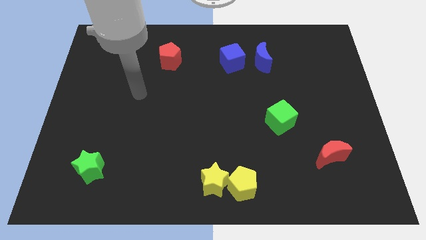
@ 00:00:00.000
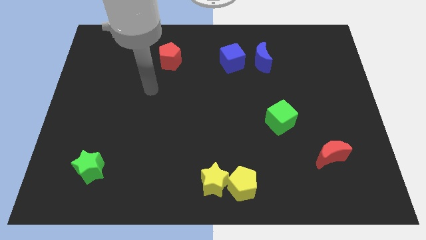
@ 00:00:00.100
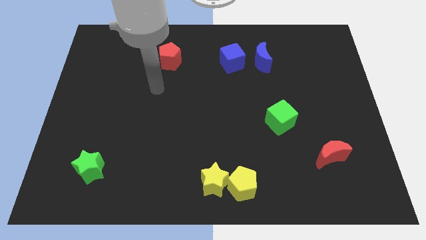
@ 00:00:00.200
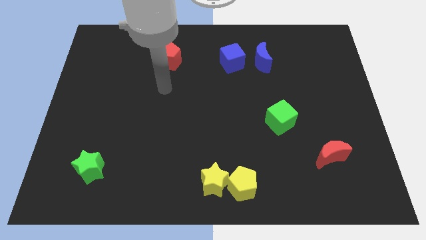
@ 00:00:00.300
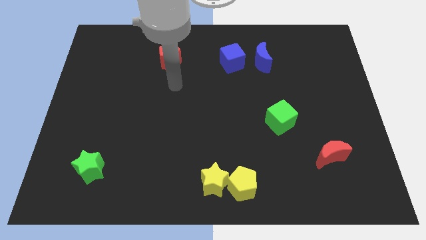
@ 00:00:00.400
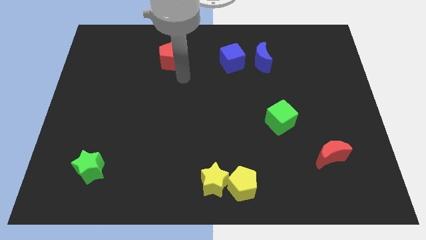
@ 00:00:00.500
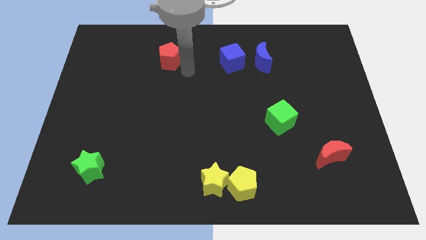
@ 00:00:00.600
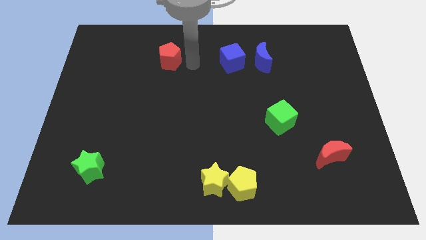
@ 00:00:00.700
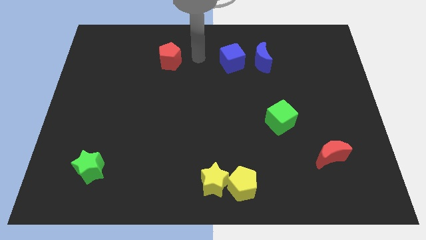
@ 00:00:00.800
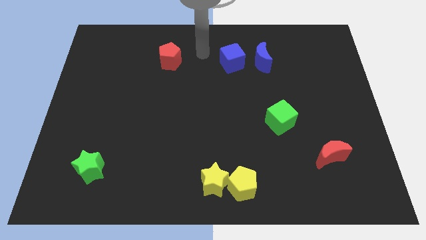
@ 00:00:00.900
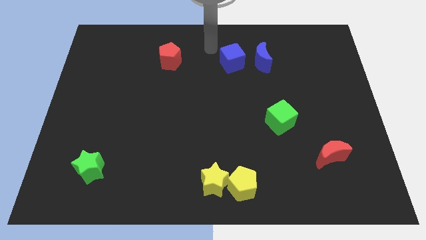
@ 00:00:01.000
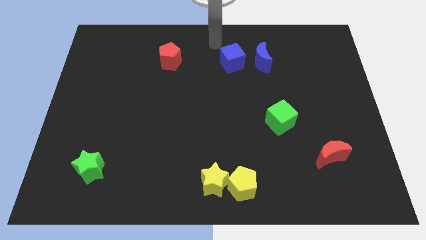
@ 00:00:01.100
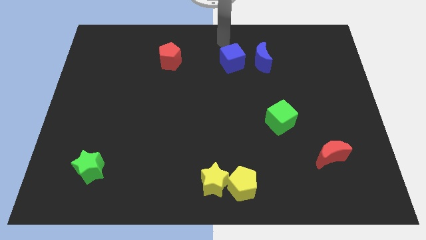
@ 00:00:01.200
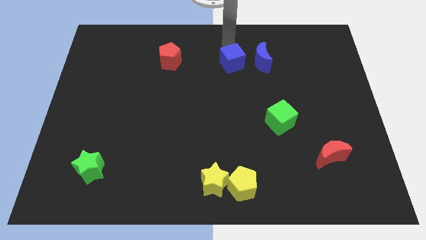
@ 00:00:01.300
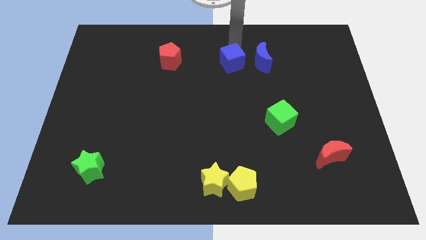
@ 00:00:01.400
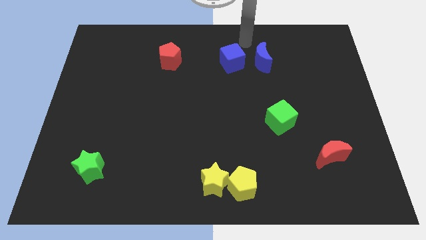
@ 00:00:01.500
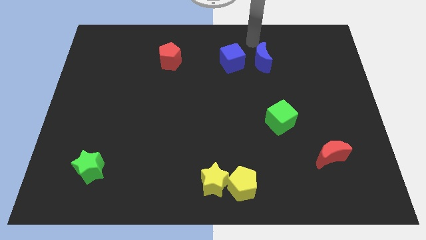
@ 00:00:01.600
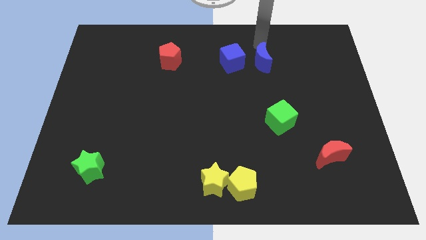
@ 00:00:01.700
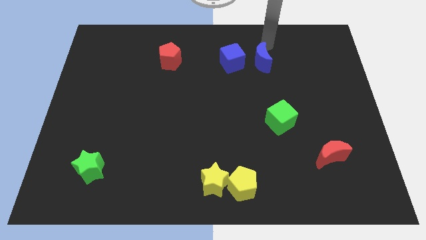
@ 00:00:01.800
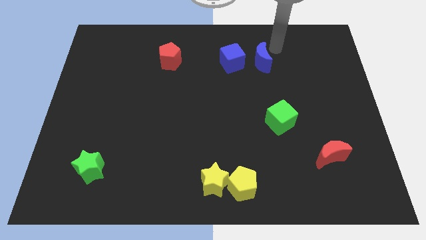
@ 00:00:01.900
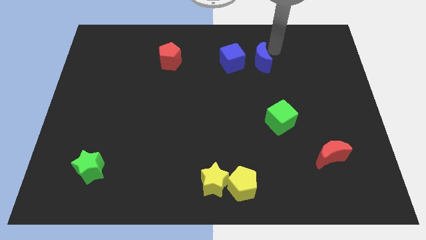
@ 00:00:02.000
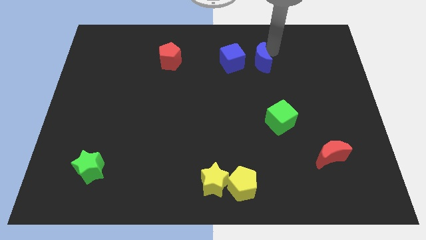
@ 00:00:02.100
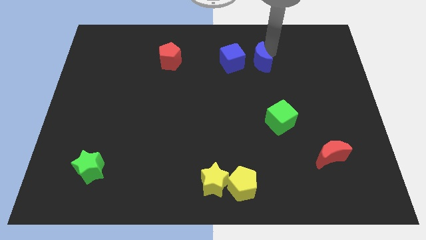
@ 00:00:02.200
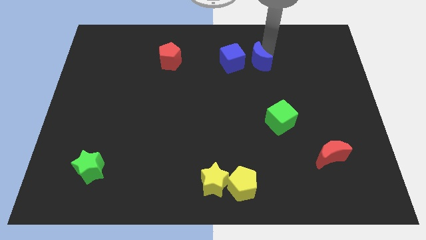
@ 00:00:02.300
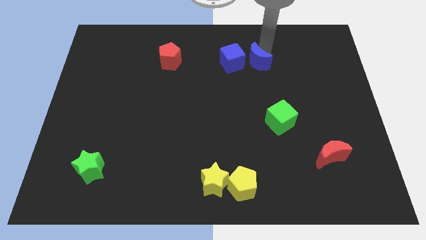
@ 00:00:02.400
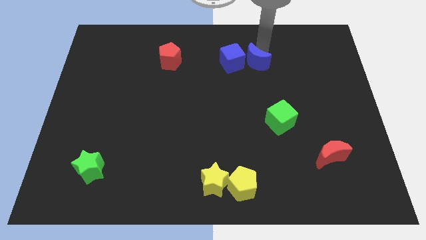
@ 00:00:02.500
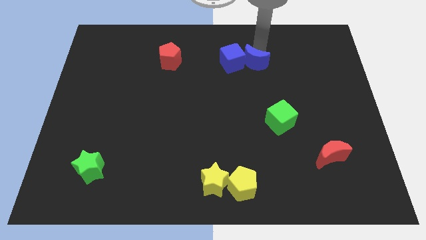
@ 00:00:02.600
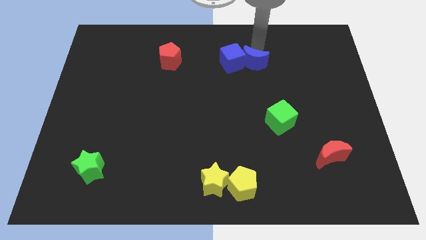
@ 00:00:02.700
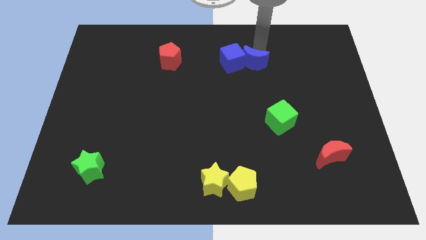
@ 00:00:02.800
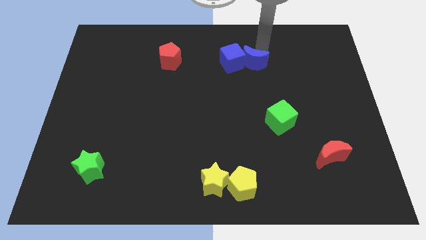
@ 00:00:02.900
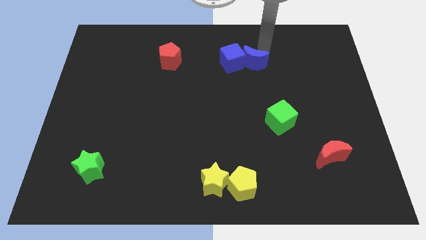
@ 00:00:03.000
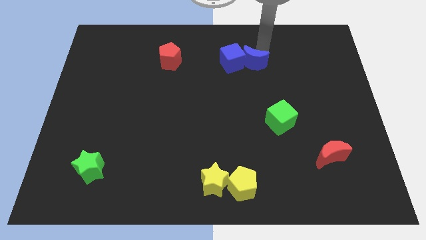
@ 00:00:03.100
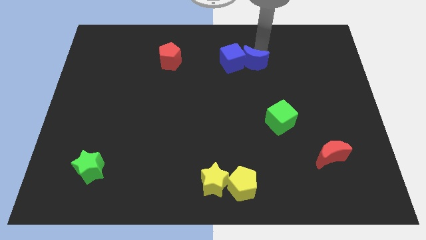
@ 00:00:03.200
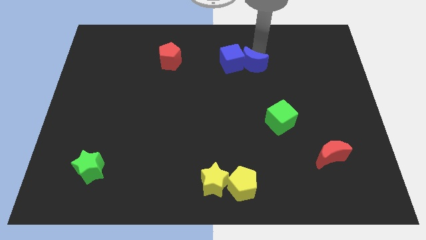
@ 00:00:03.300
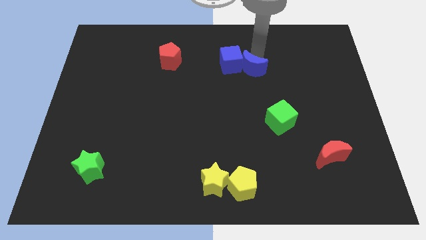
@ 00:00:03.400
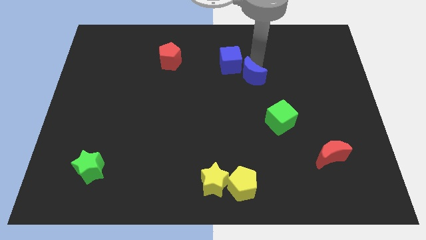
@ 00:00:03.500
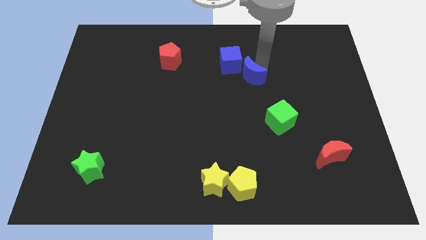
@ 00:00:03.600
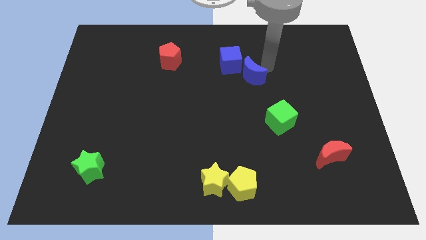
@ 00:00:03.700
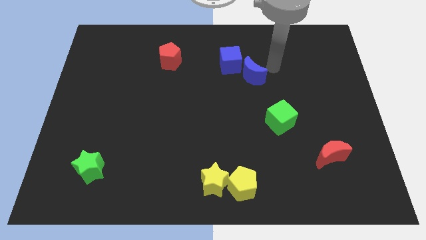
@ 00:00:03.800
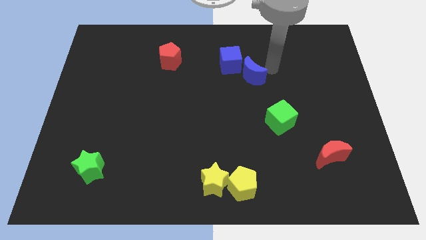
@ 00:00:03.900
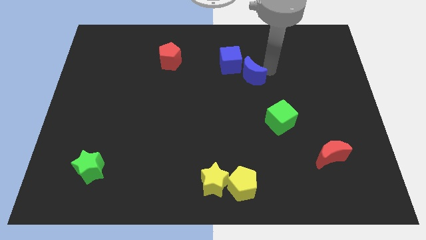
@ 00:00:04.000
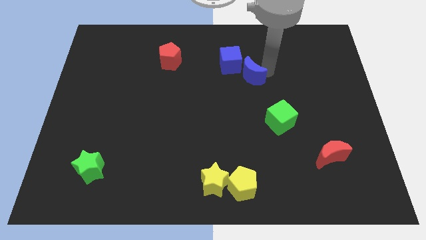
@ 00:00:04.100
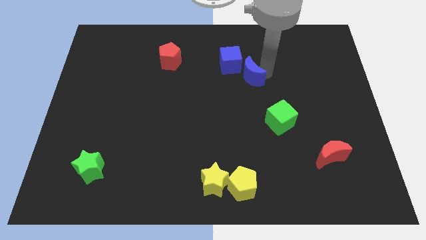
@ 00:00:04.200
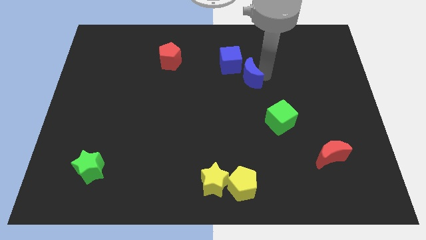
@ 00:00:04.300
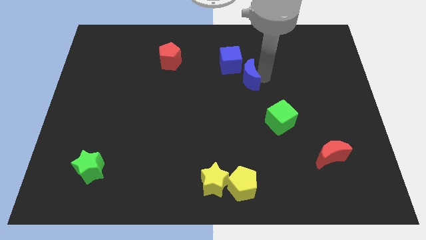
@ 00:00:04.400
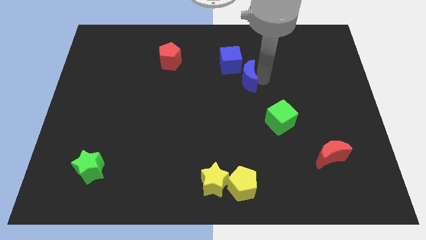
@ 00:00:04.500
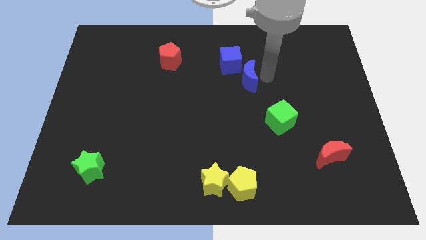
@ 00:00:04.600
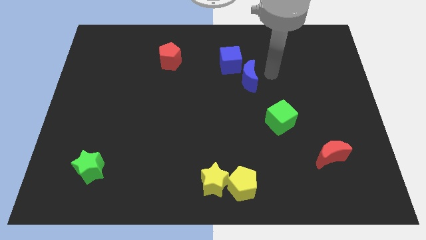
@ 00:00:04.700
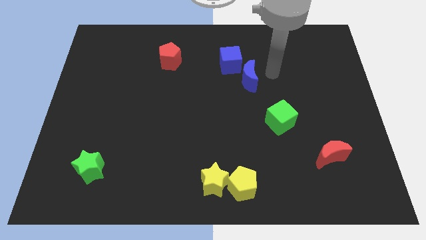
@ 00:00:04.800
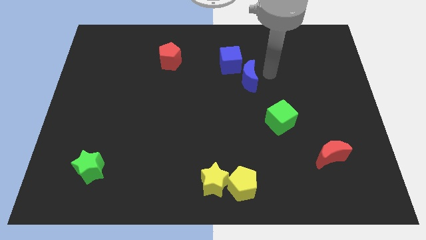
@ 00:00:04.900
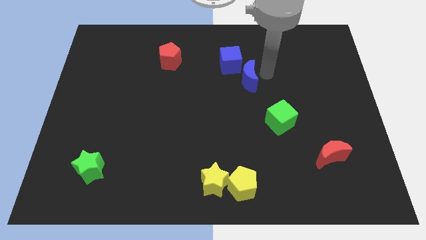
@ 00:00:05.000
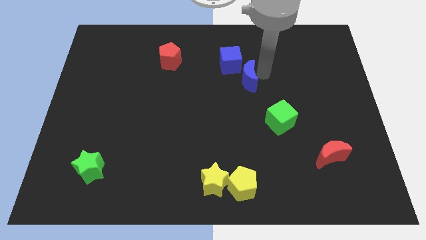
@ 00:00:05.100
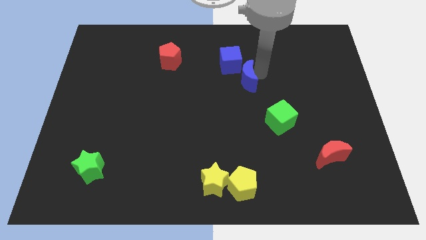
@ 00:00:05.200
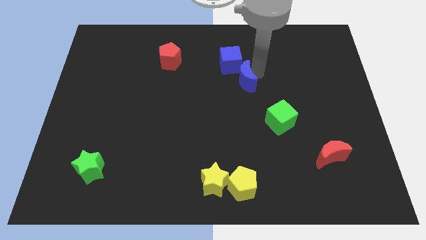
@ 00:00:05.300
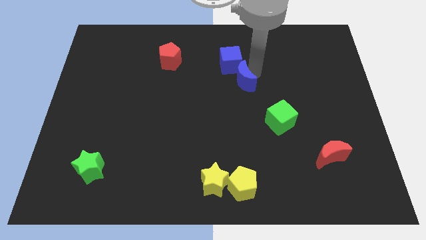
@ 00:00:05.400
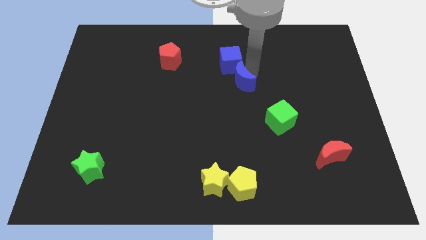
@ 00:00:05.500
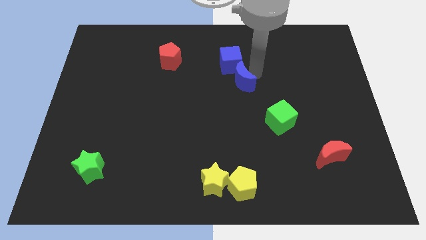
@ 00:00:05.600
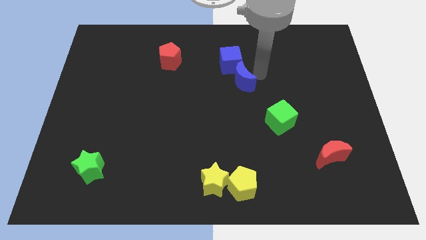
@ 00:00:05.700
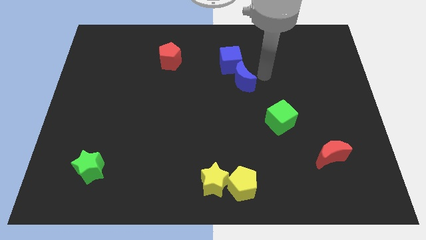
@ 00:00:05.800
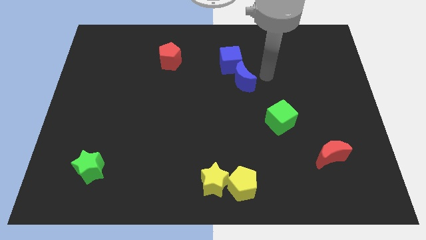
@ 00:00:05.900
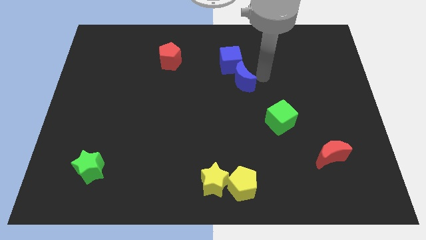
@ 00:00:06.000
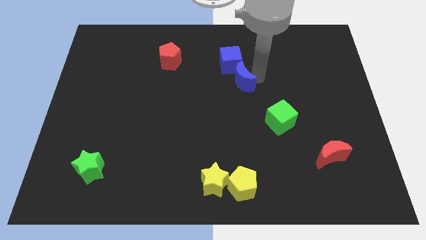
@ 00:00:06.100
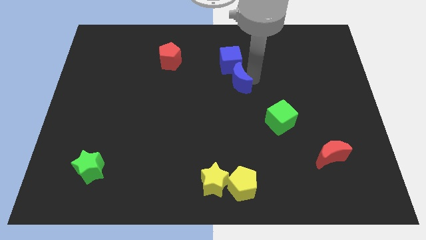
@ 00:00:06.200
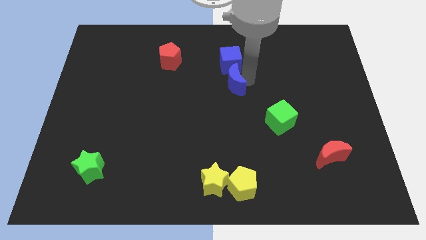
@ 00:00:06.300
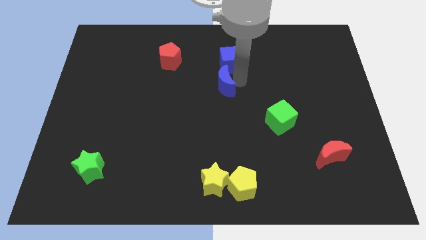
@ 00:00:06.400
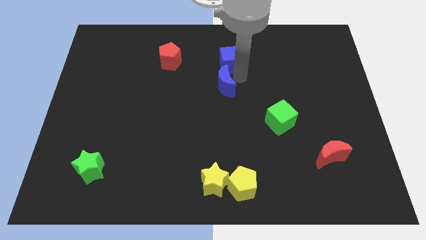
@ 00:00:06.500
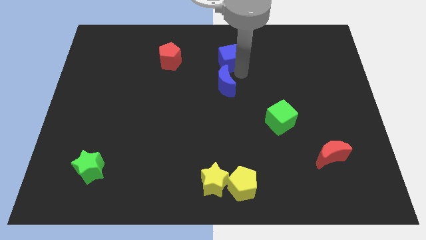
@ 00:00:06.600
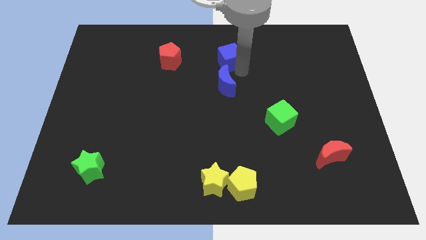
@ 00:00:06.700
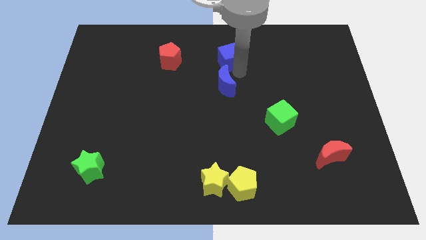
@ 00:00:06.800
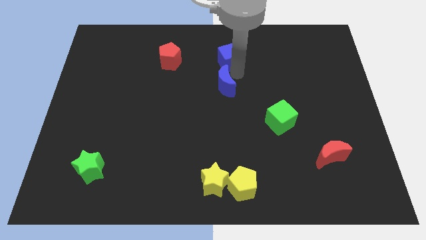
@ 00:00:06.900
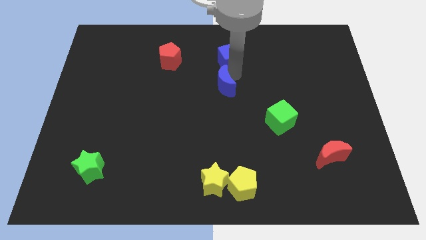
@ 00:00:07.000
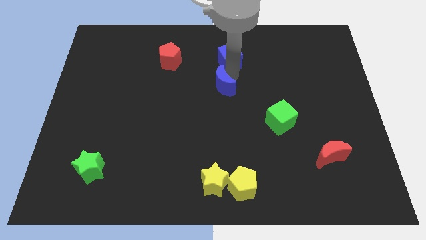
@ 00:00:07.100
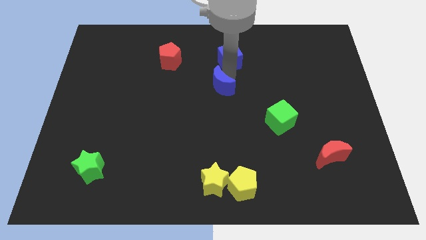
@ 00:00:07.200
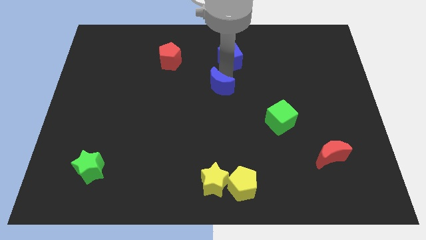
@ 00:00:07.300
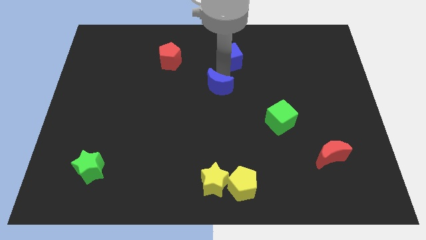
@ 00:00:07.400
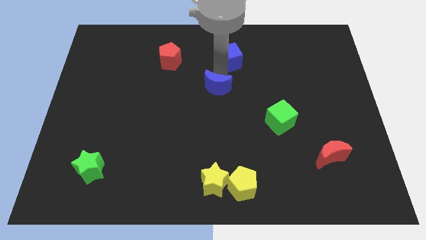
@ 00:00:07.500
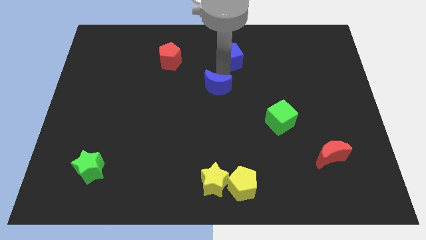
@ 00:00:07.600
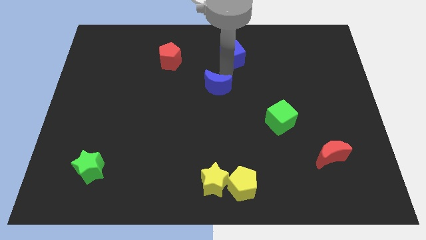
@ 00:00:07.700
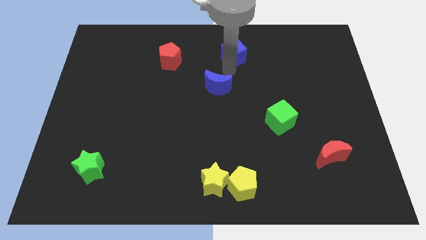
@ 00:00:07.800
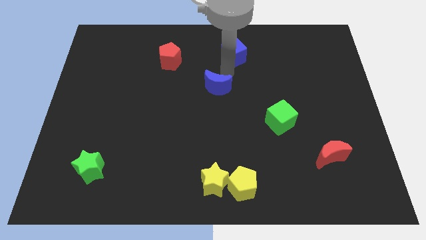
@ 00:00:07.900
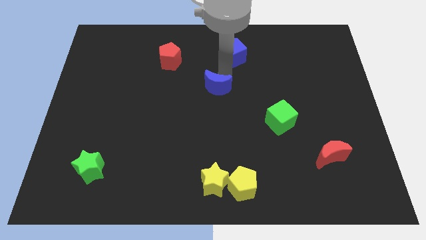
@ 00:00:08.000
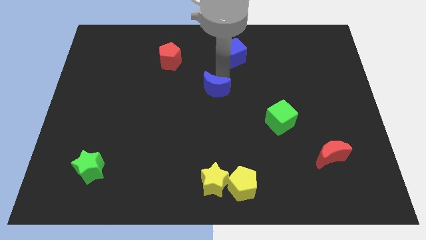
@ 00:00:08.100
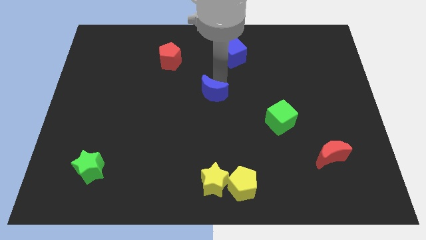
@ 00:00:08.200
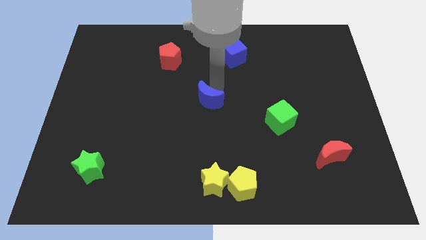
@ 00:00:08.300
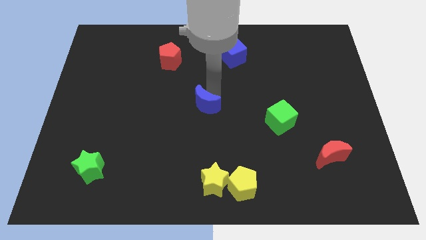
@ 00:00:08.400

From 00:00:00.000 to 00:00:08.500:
slide the blue moon diagonally down and to the left
